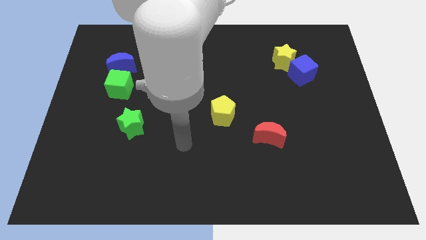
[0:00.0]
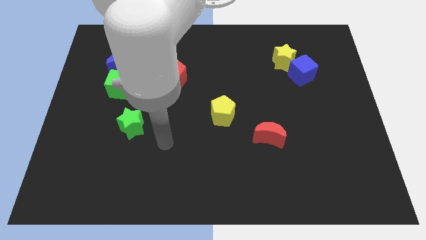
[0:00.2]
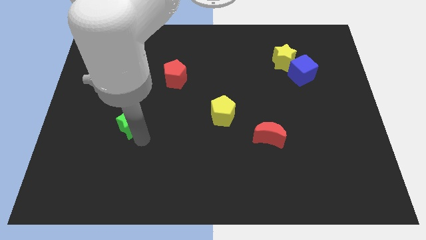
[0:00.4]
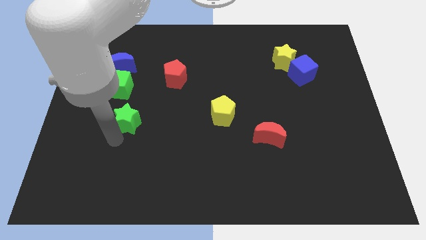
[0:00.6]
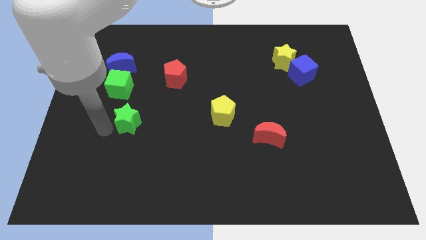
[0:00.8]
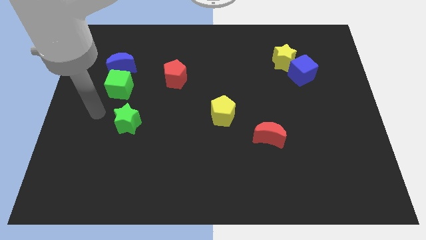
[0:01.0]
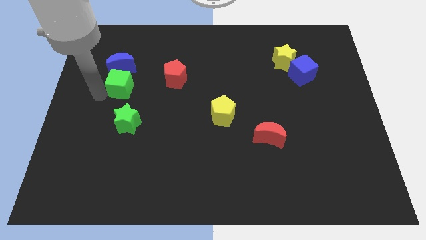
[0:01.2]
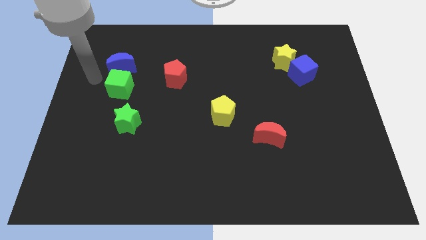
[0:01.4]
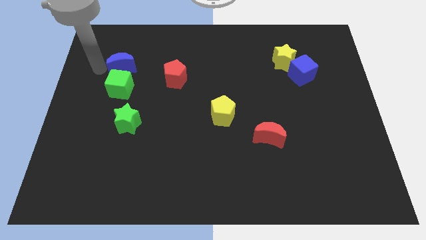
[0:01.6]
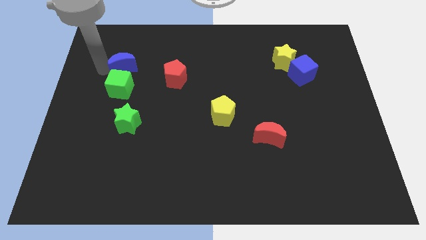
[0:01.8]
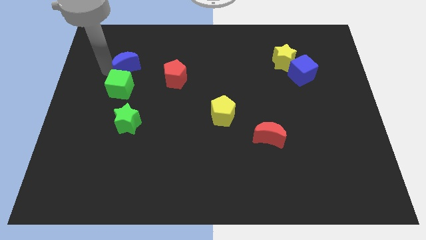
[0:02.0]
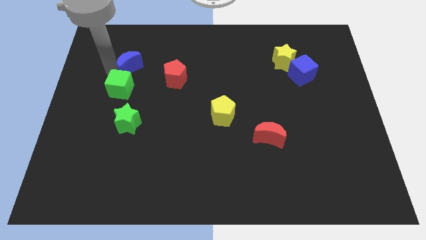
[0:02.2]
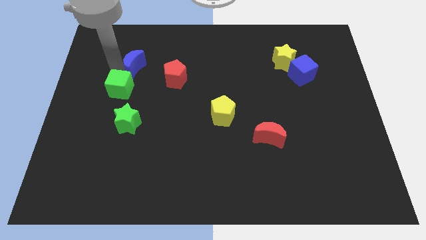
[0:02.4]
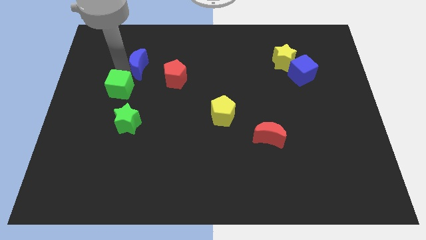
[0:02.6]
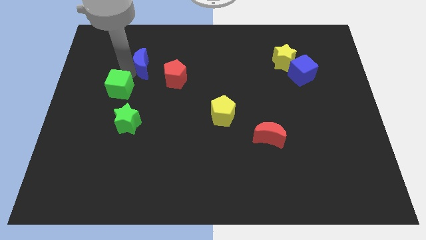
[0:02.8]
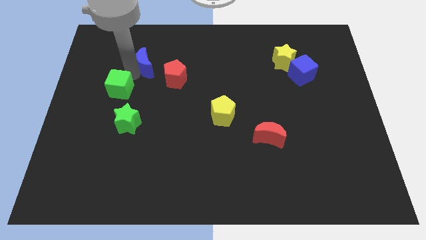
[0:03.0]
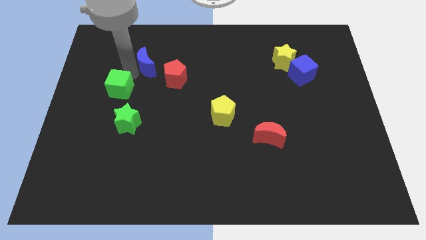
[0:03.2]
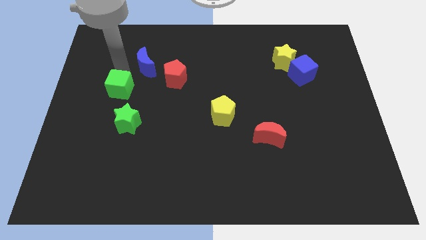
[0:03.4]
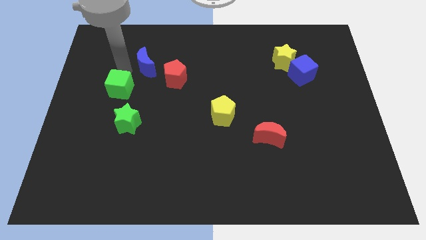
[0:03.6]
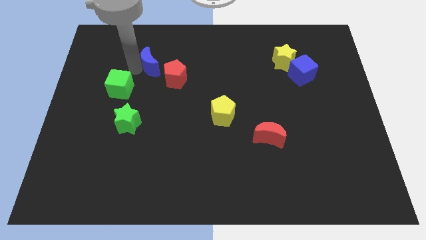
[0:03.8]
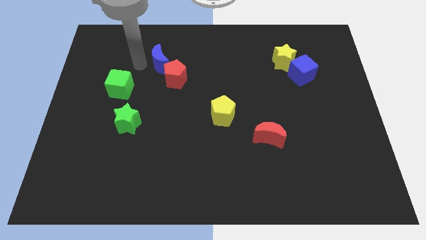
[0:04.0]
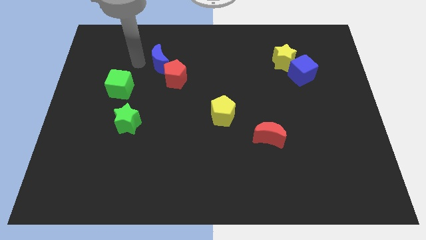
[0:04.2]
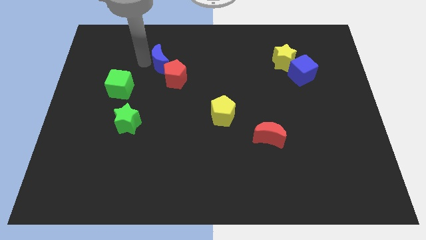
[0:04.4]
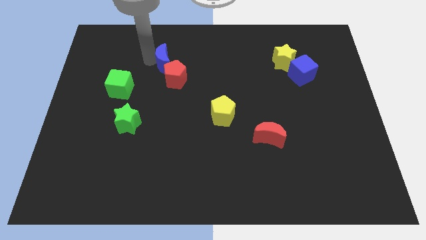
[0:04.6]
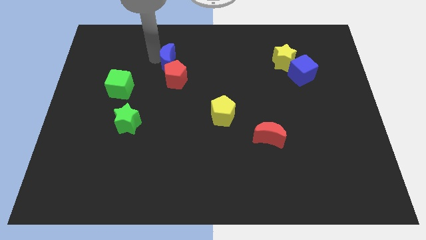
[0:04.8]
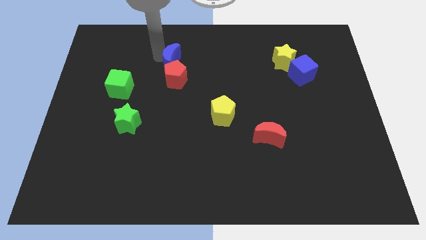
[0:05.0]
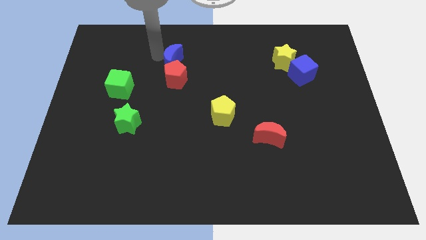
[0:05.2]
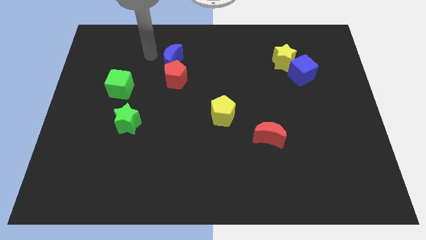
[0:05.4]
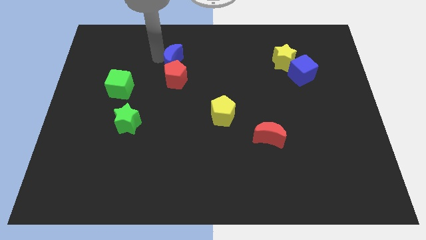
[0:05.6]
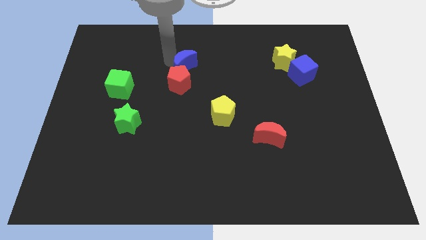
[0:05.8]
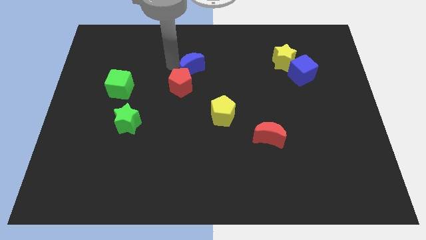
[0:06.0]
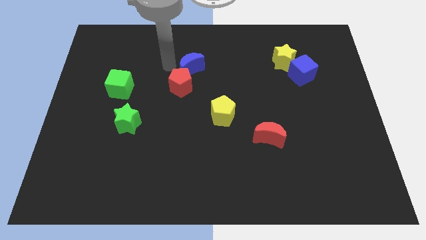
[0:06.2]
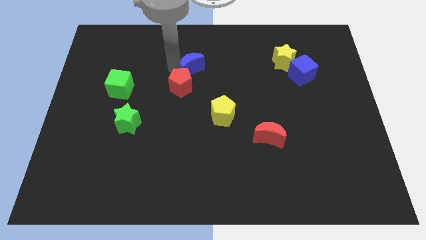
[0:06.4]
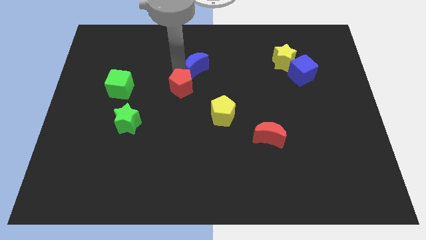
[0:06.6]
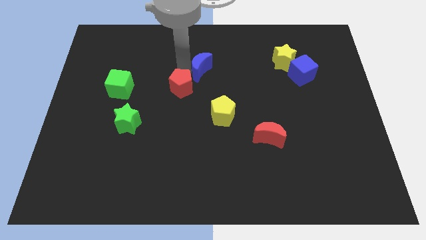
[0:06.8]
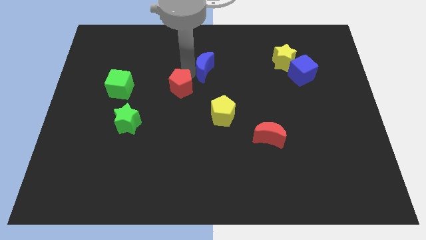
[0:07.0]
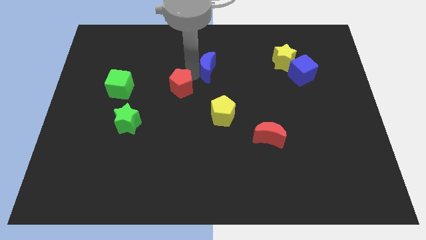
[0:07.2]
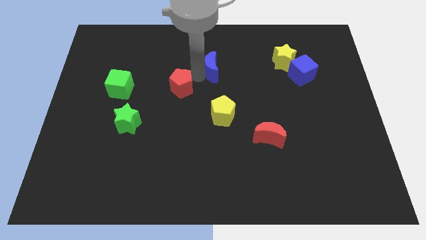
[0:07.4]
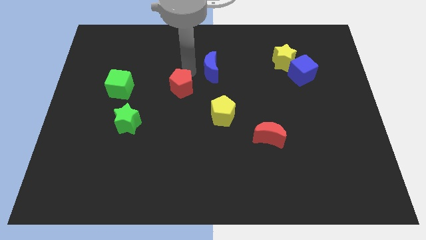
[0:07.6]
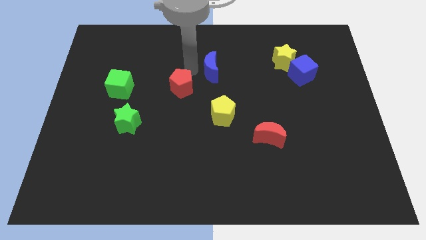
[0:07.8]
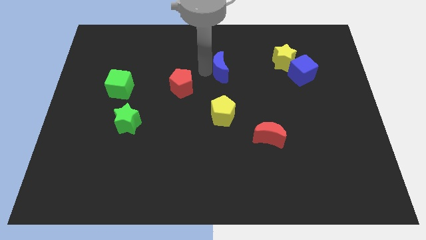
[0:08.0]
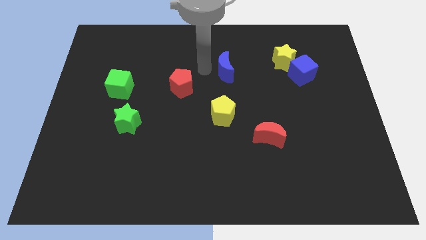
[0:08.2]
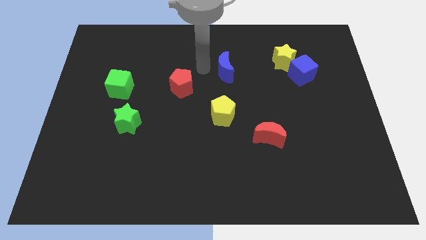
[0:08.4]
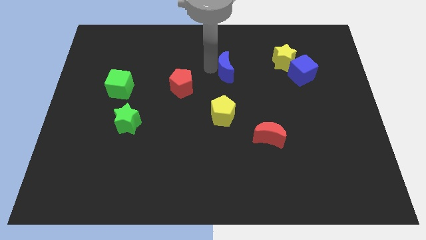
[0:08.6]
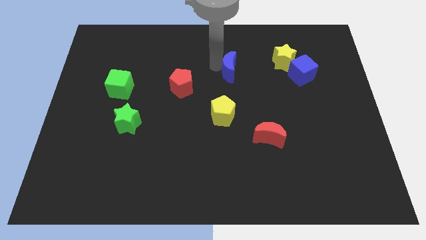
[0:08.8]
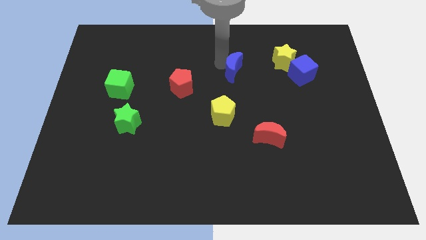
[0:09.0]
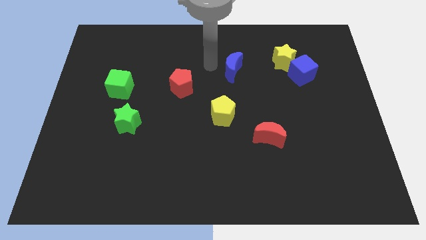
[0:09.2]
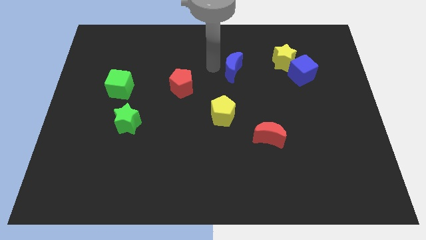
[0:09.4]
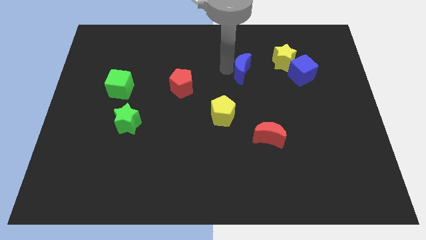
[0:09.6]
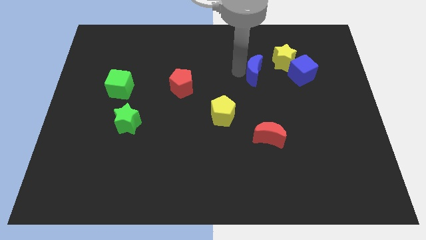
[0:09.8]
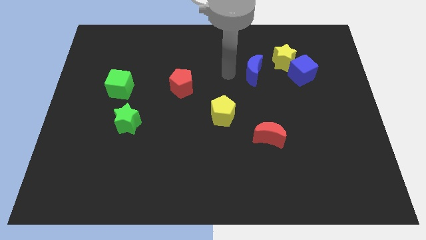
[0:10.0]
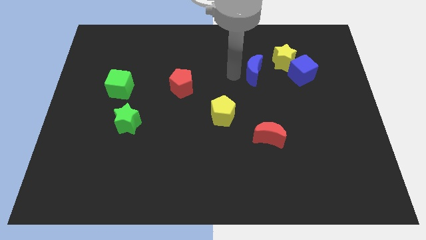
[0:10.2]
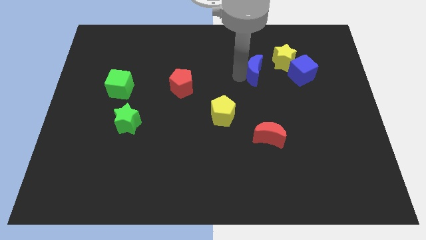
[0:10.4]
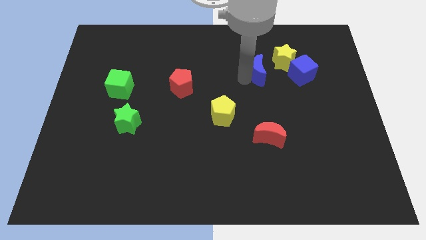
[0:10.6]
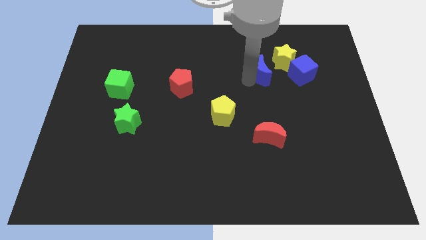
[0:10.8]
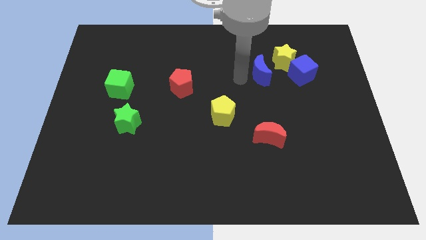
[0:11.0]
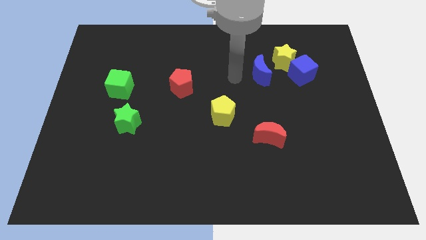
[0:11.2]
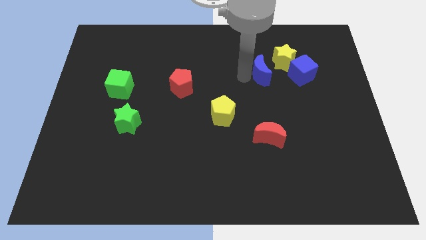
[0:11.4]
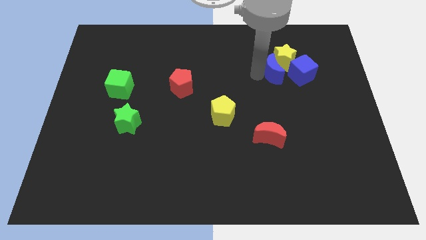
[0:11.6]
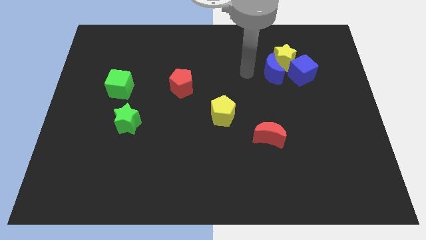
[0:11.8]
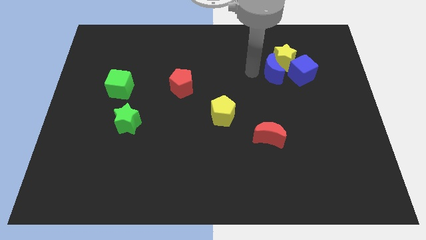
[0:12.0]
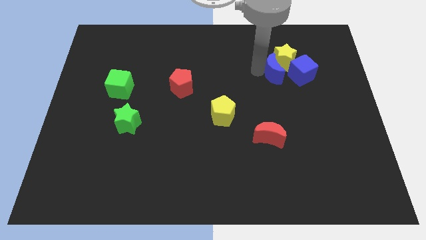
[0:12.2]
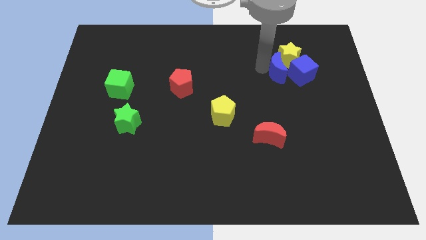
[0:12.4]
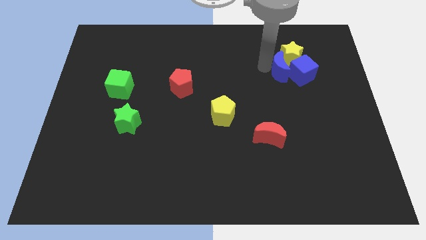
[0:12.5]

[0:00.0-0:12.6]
push the blue moon close to the blue cube
